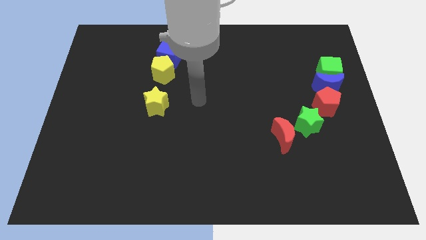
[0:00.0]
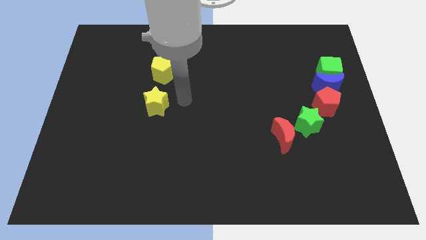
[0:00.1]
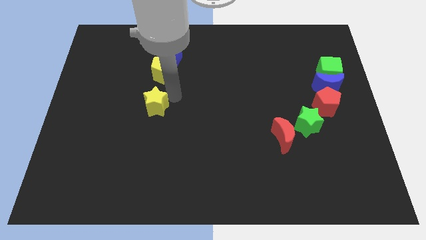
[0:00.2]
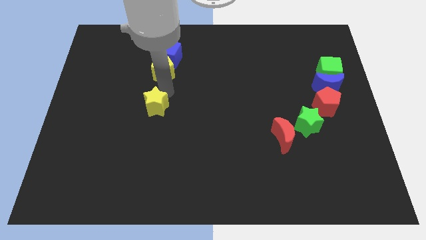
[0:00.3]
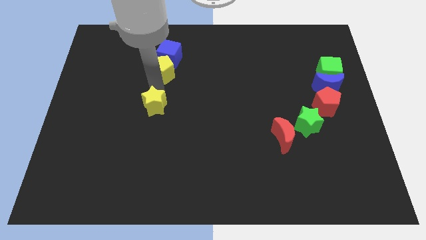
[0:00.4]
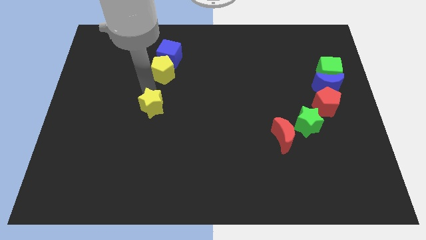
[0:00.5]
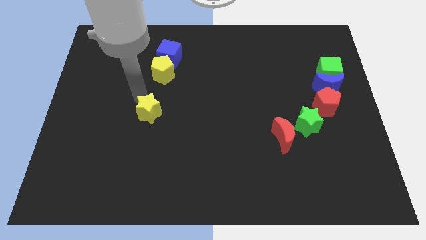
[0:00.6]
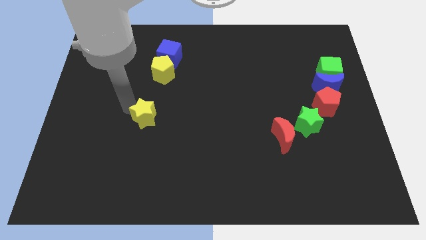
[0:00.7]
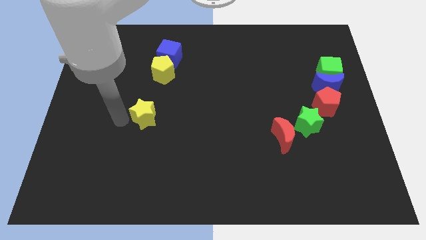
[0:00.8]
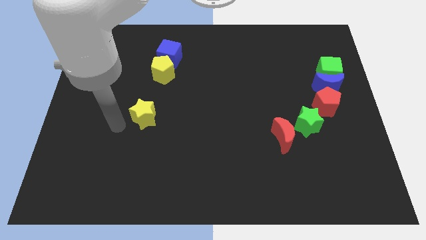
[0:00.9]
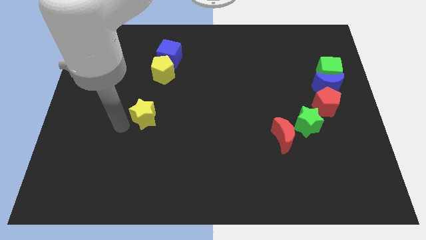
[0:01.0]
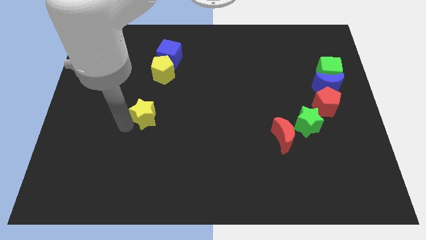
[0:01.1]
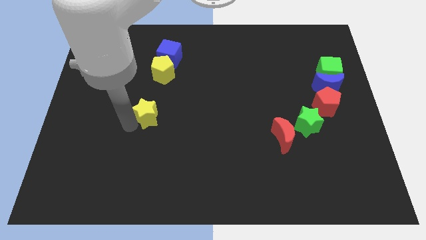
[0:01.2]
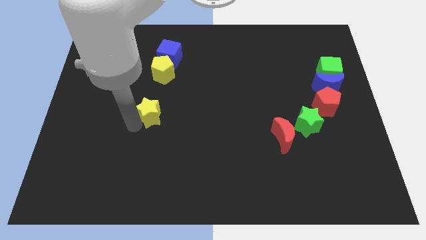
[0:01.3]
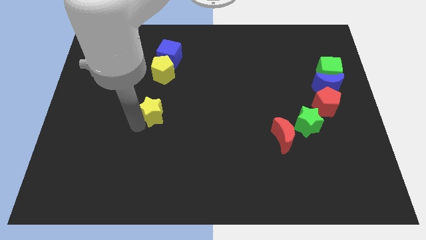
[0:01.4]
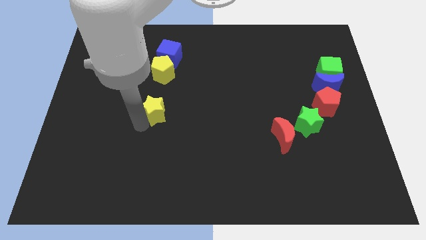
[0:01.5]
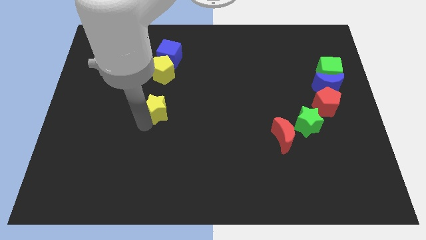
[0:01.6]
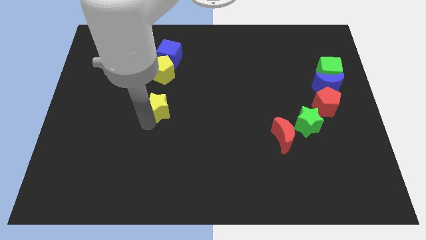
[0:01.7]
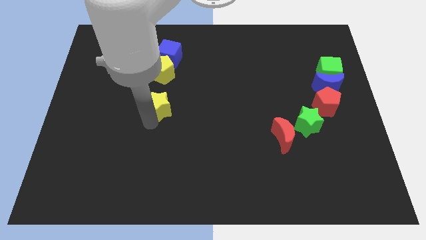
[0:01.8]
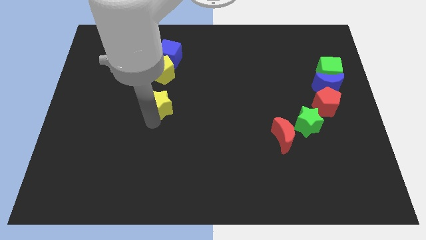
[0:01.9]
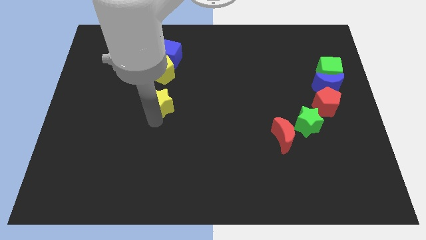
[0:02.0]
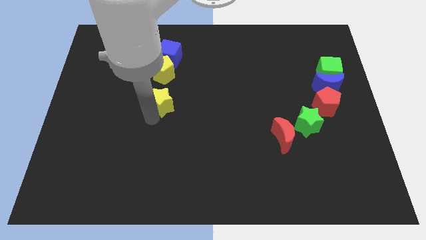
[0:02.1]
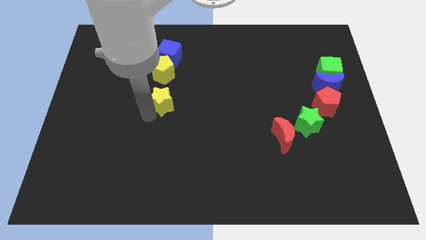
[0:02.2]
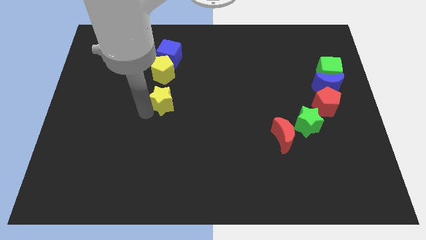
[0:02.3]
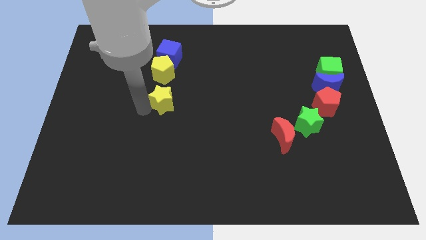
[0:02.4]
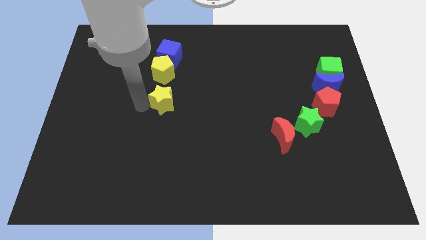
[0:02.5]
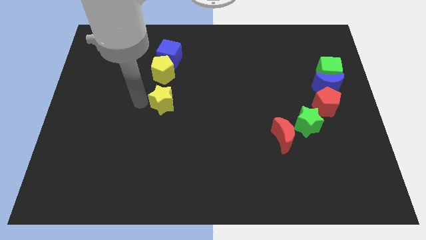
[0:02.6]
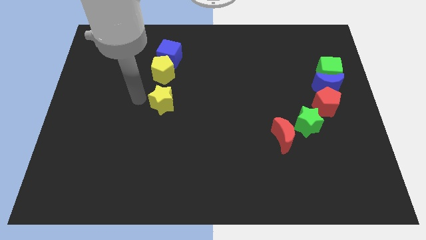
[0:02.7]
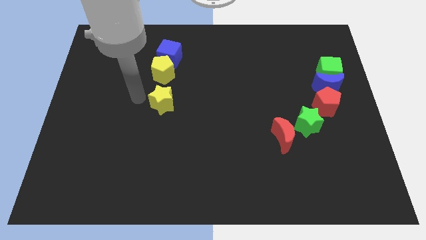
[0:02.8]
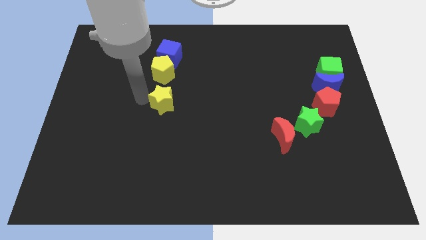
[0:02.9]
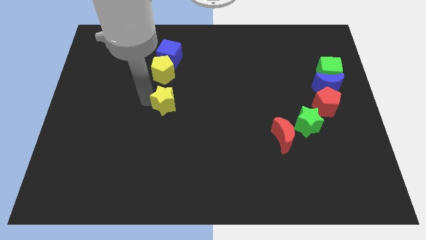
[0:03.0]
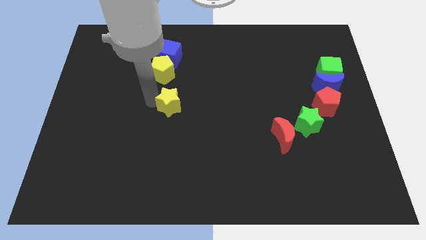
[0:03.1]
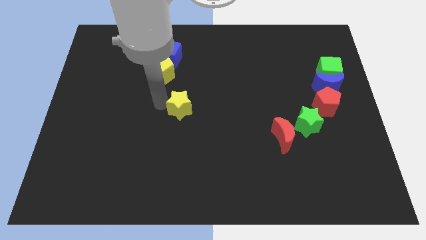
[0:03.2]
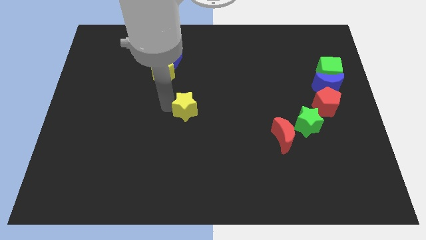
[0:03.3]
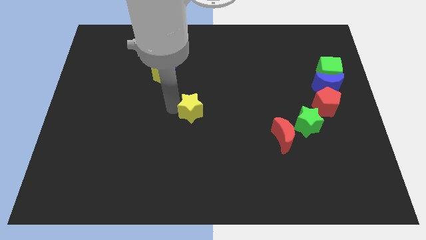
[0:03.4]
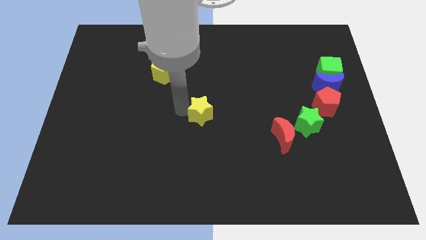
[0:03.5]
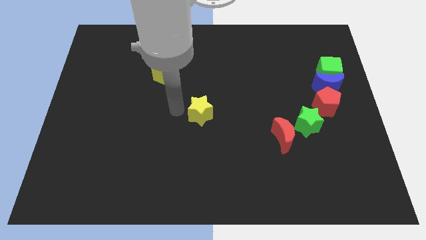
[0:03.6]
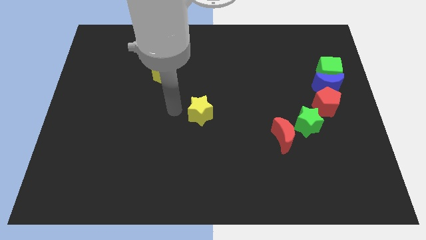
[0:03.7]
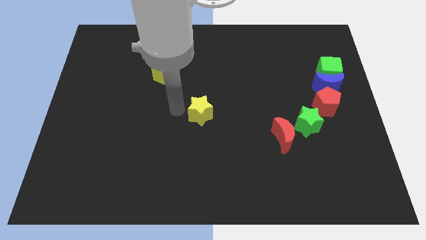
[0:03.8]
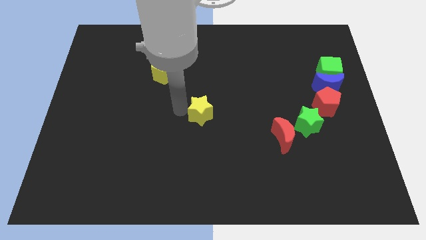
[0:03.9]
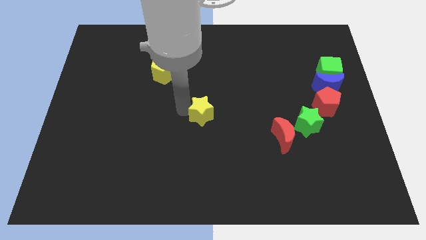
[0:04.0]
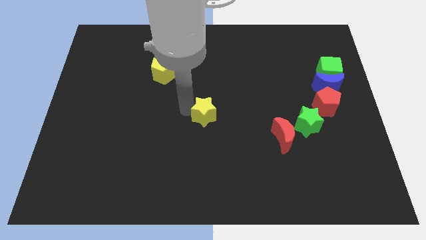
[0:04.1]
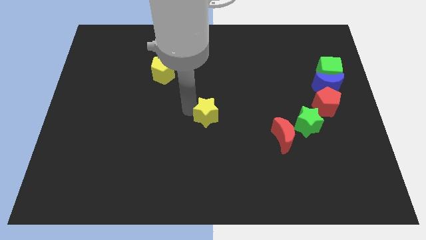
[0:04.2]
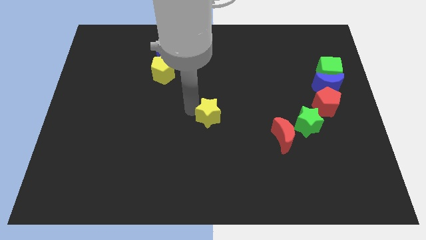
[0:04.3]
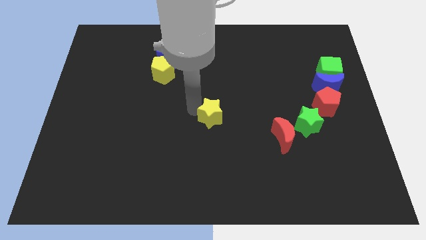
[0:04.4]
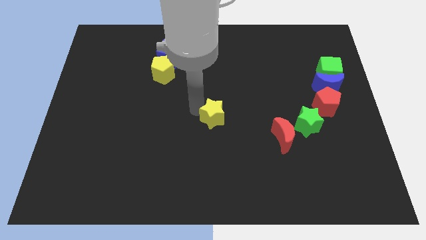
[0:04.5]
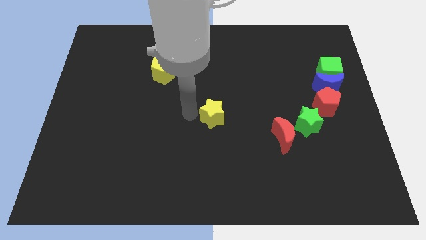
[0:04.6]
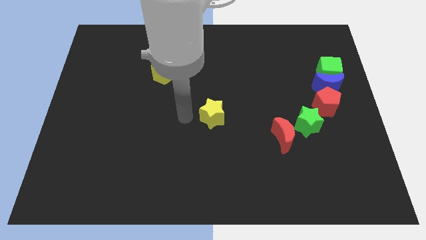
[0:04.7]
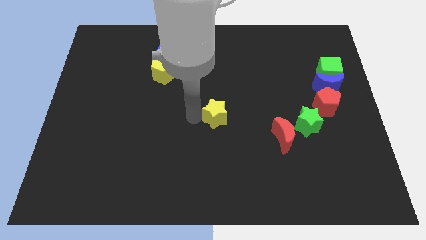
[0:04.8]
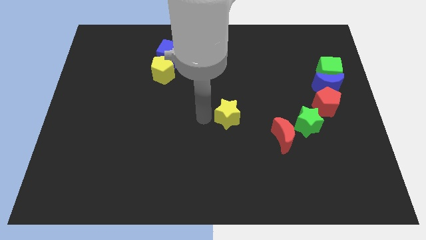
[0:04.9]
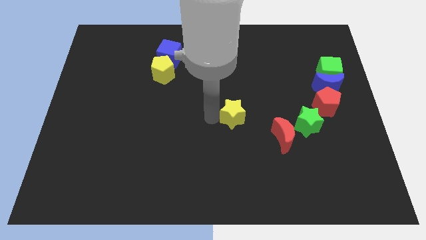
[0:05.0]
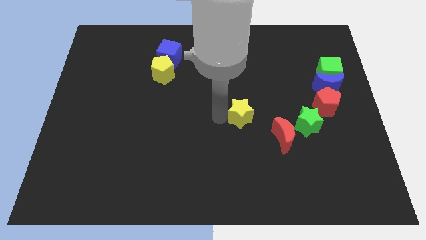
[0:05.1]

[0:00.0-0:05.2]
put the yellow star diagonally up and to the left of the red moon

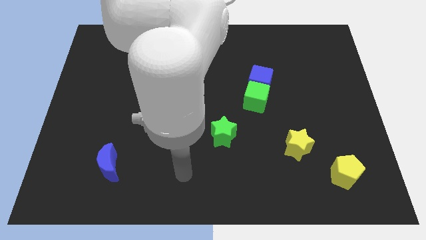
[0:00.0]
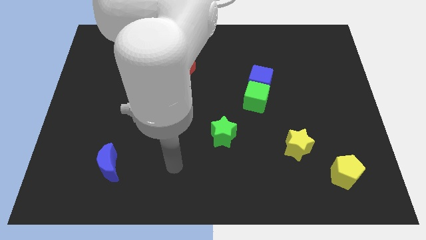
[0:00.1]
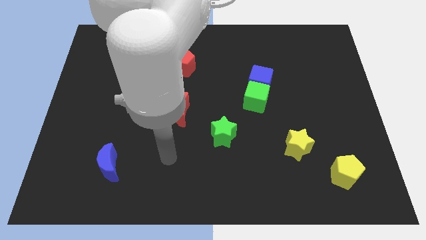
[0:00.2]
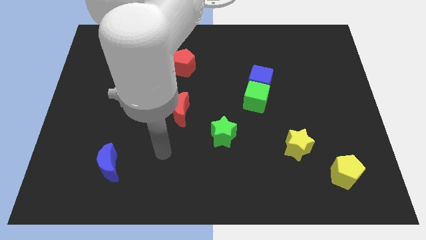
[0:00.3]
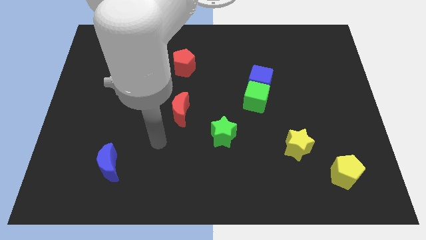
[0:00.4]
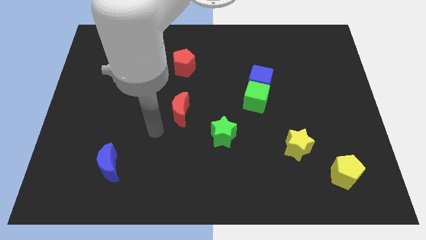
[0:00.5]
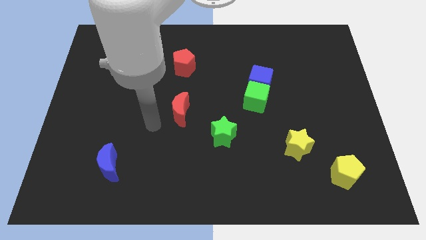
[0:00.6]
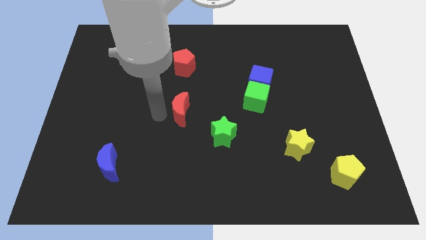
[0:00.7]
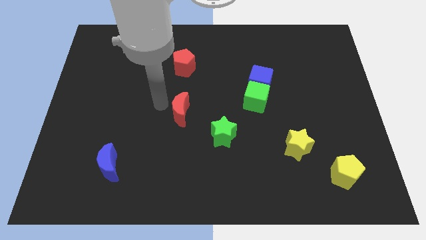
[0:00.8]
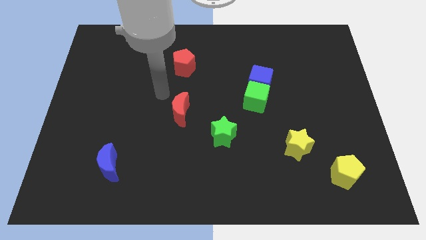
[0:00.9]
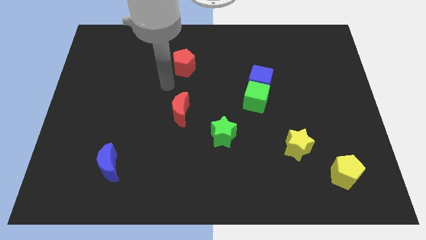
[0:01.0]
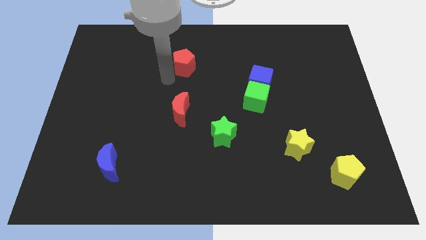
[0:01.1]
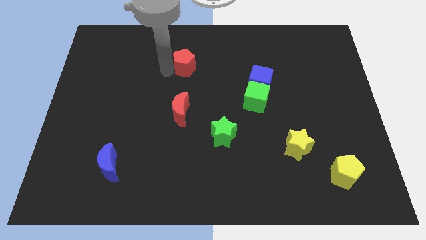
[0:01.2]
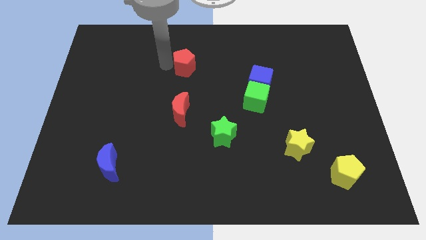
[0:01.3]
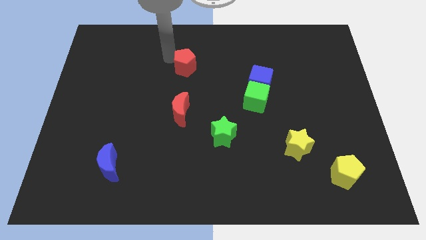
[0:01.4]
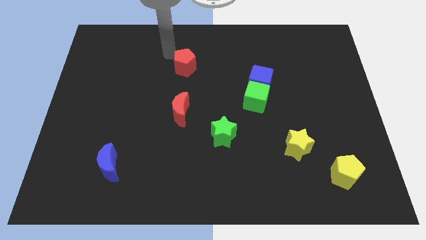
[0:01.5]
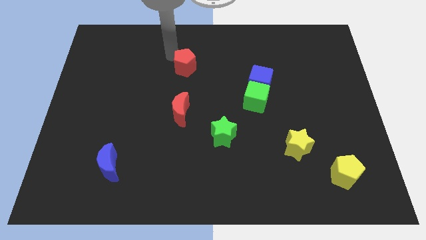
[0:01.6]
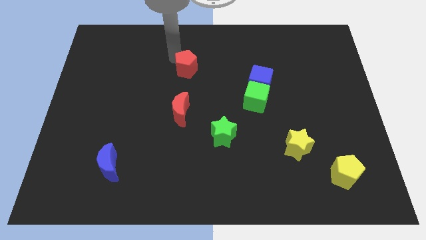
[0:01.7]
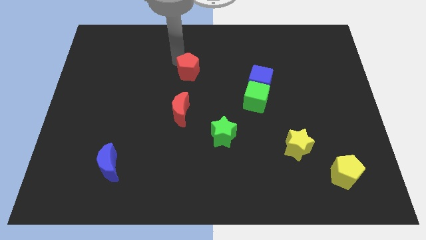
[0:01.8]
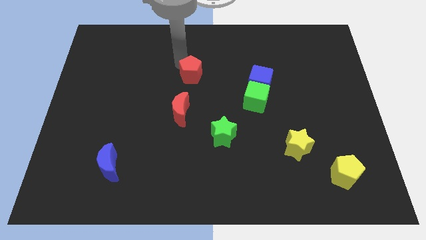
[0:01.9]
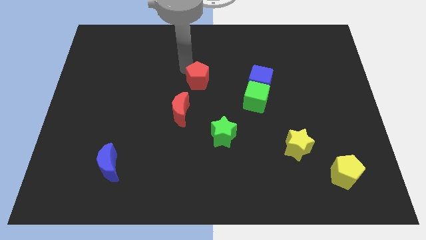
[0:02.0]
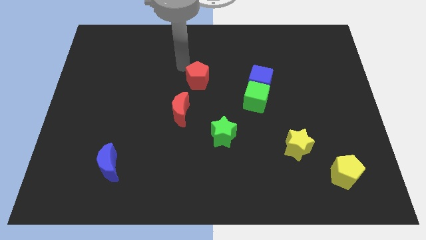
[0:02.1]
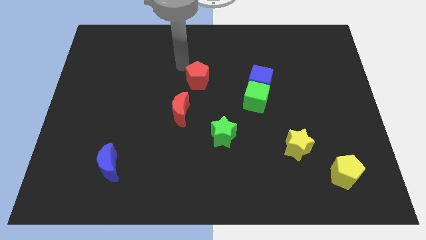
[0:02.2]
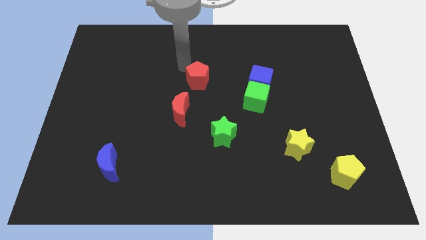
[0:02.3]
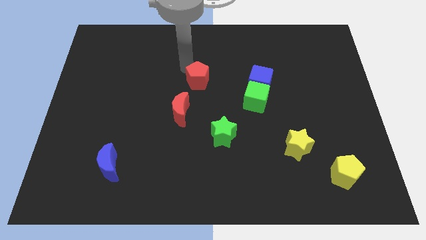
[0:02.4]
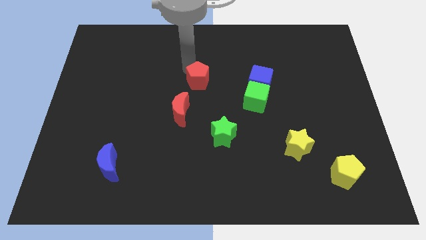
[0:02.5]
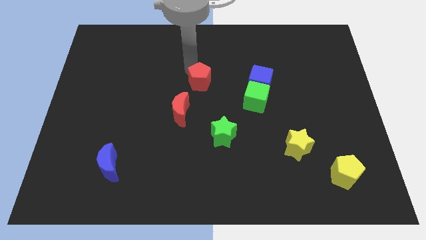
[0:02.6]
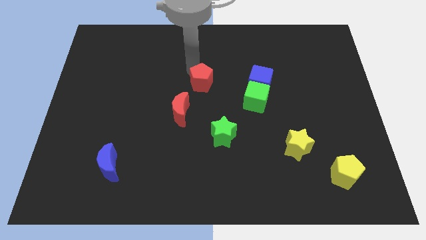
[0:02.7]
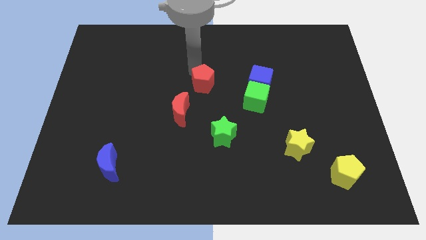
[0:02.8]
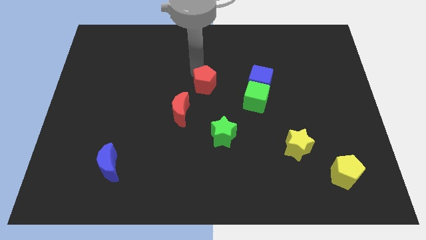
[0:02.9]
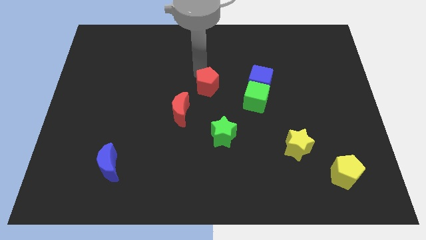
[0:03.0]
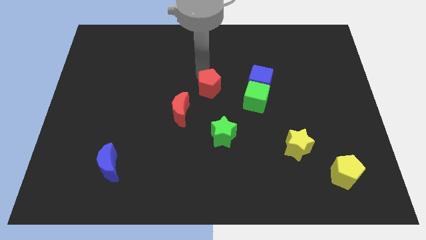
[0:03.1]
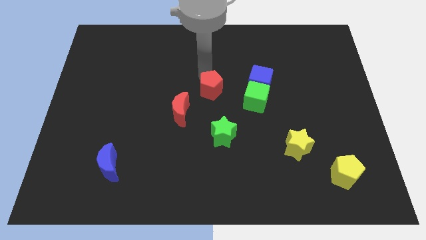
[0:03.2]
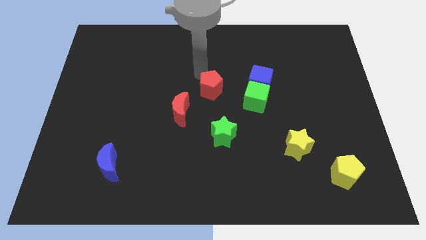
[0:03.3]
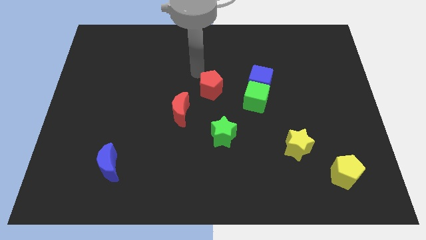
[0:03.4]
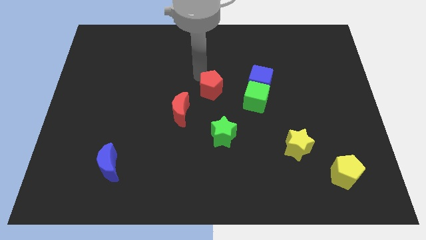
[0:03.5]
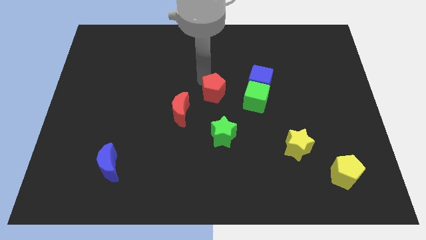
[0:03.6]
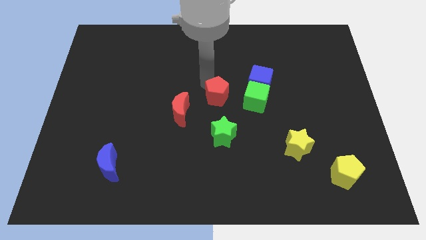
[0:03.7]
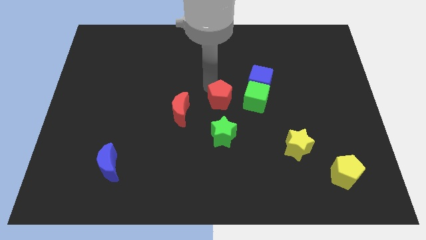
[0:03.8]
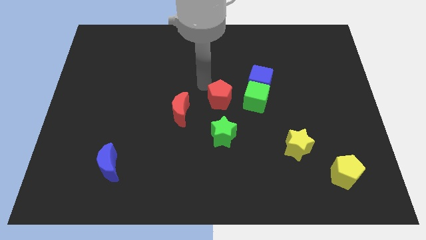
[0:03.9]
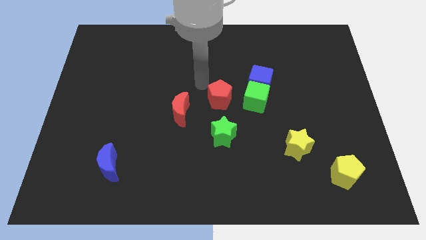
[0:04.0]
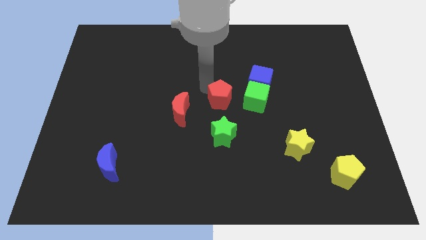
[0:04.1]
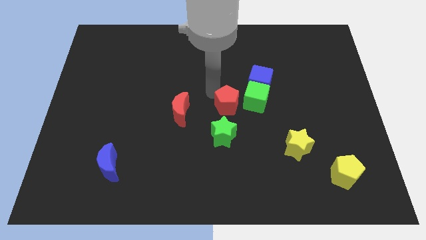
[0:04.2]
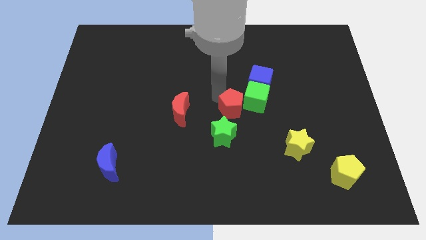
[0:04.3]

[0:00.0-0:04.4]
put the red pentagon to the top right of the green star
